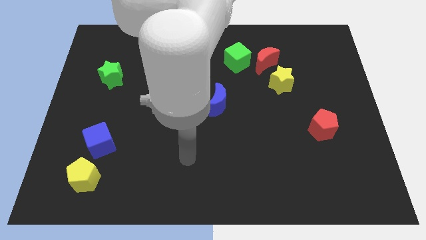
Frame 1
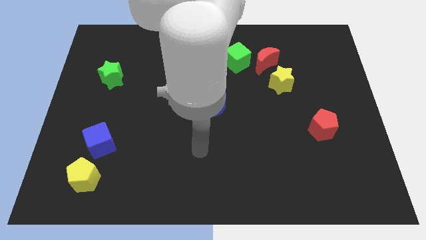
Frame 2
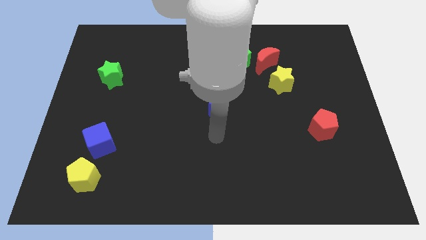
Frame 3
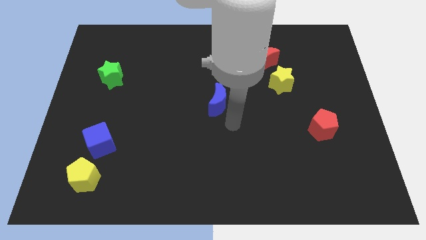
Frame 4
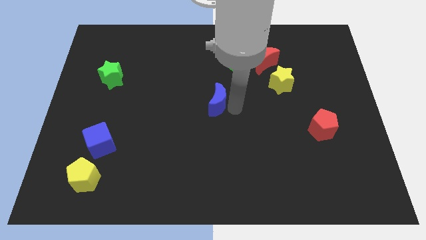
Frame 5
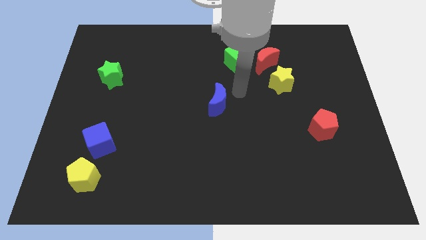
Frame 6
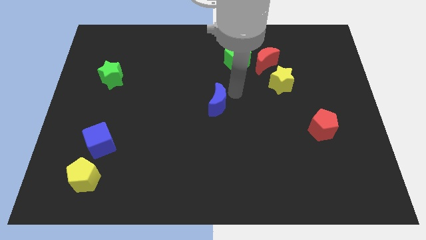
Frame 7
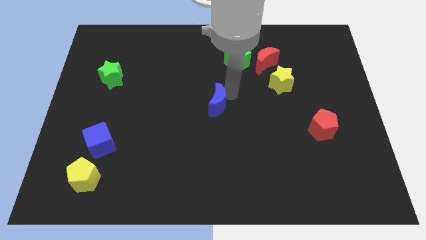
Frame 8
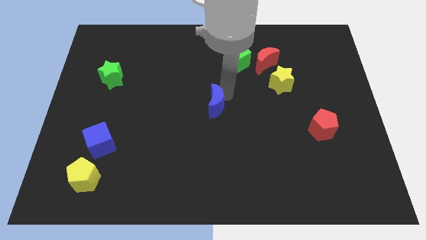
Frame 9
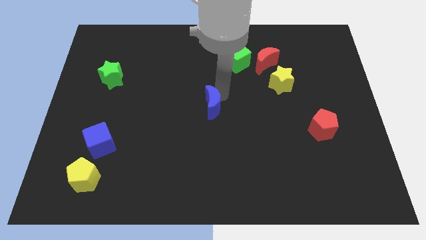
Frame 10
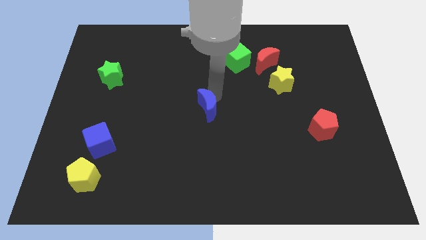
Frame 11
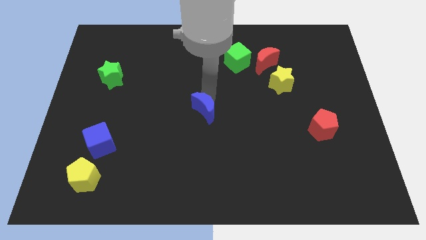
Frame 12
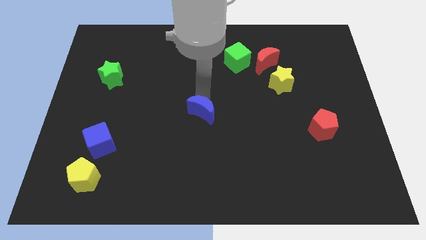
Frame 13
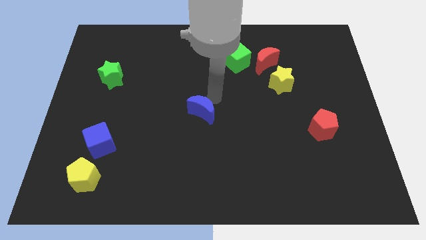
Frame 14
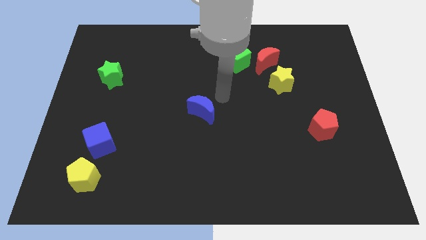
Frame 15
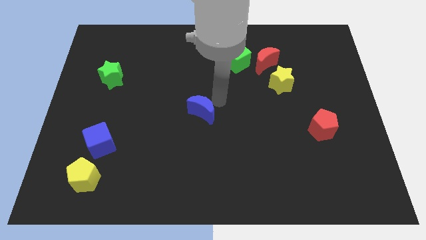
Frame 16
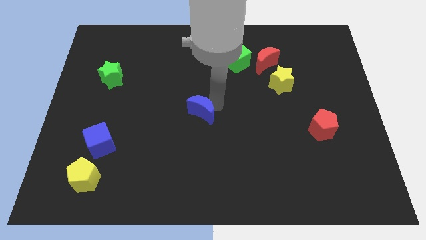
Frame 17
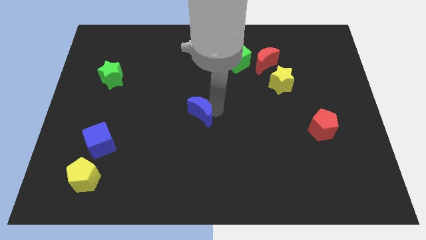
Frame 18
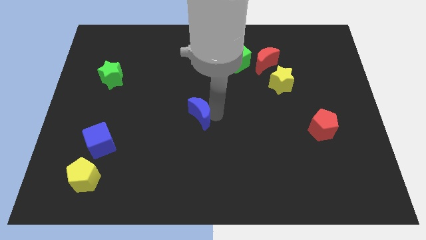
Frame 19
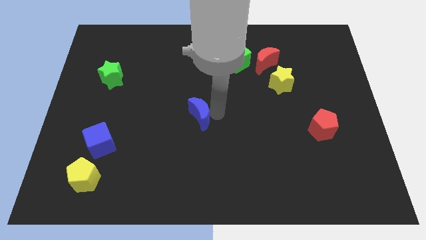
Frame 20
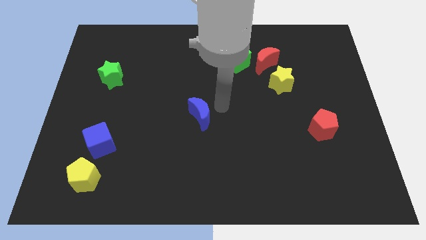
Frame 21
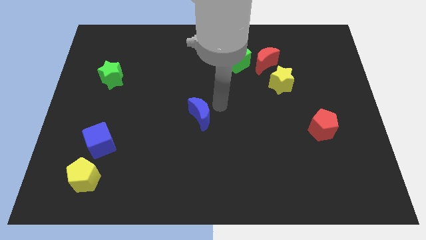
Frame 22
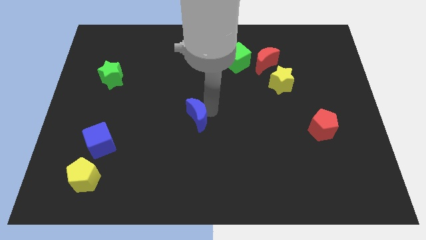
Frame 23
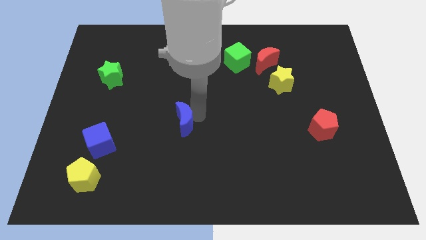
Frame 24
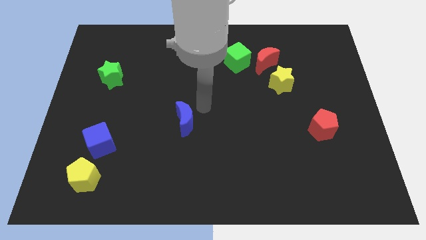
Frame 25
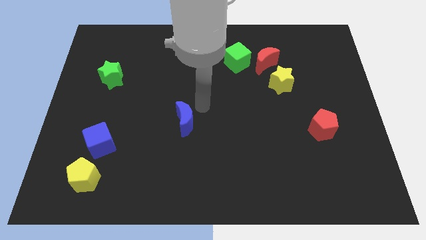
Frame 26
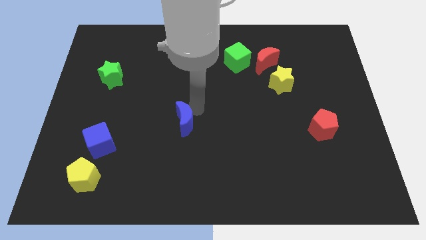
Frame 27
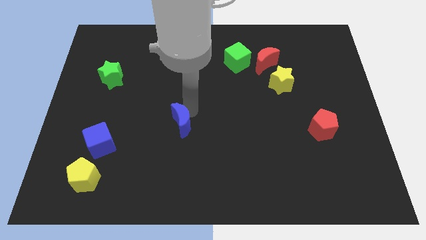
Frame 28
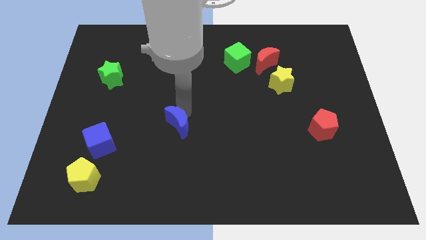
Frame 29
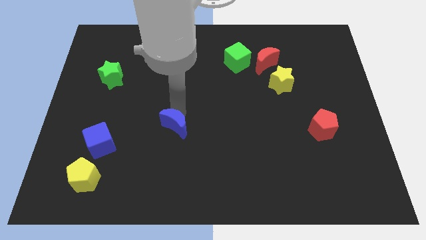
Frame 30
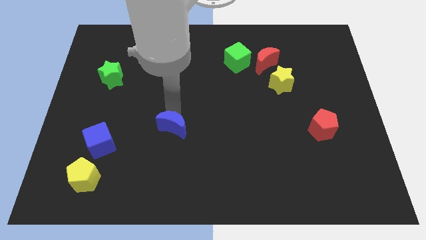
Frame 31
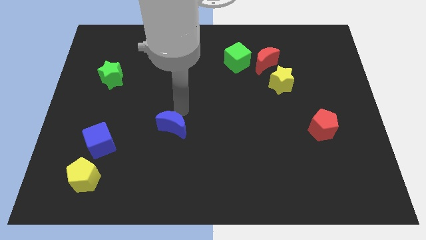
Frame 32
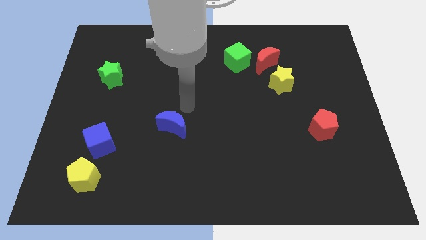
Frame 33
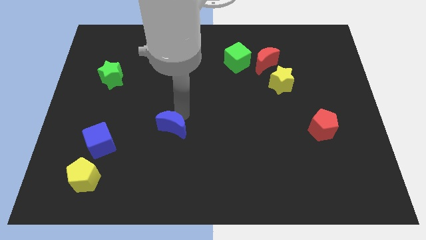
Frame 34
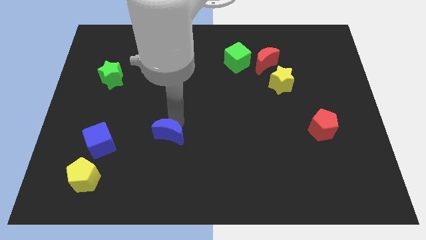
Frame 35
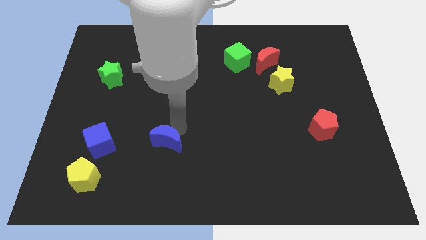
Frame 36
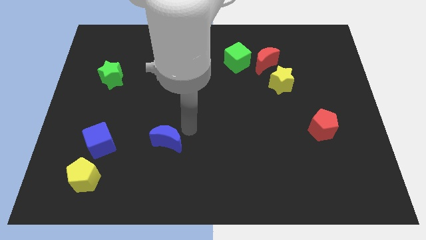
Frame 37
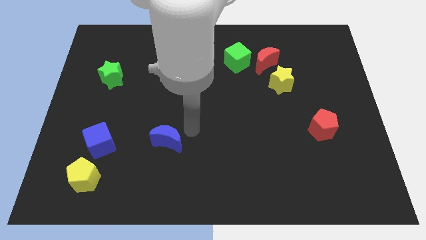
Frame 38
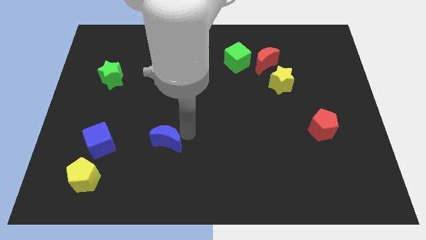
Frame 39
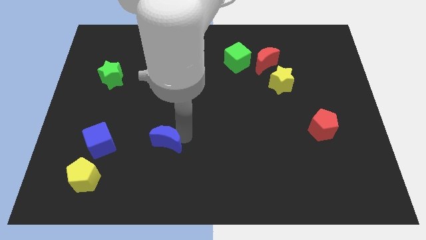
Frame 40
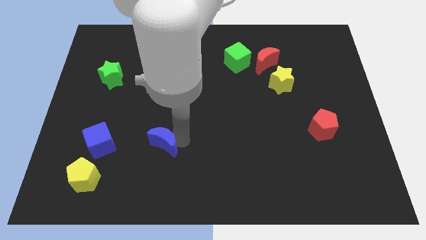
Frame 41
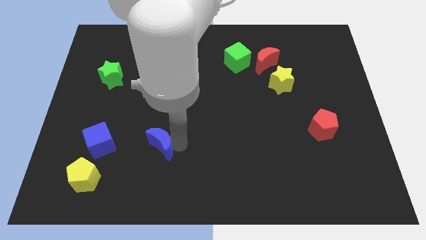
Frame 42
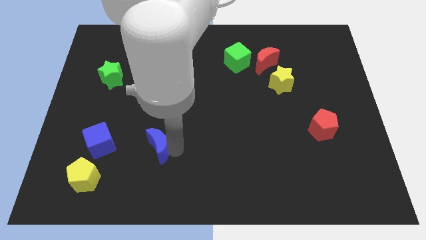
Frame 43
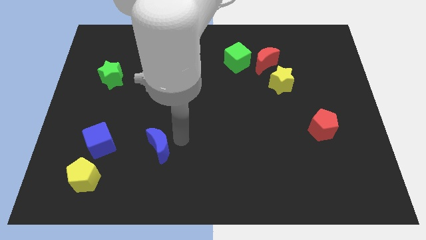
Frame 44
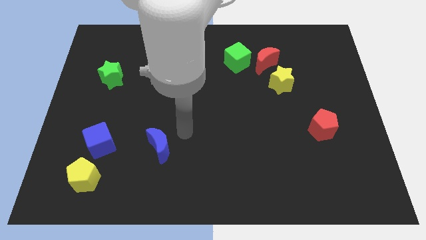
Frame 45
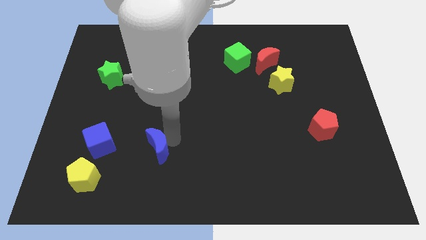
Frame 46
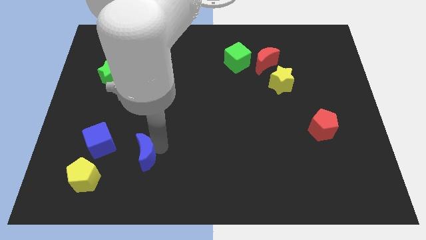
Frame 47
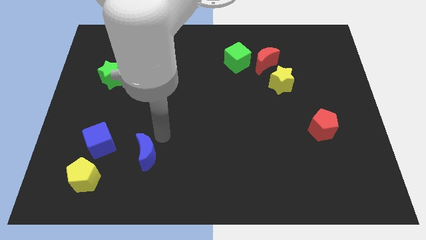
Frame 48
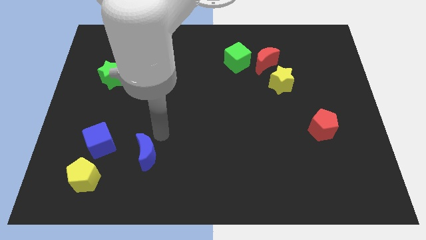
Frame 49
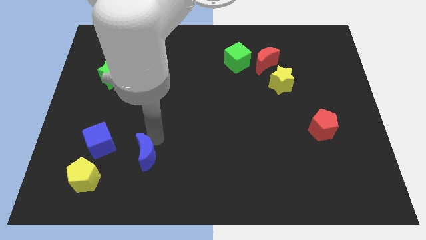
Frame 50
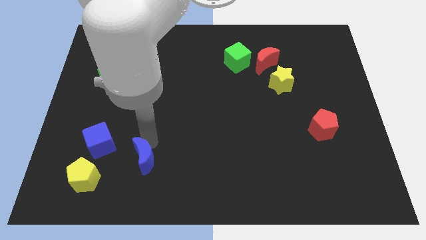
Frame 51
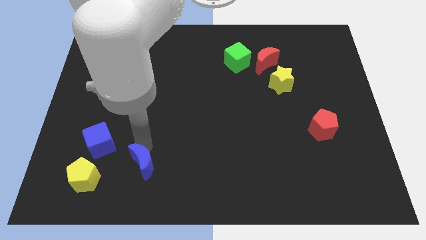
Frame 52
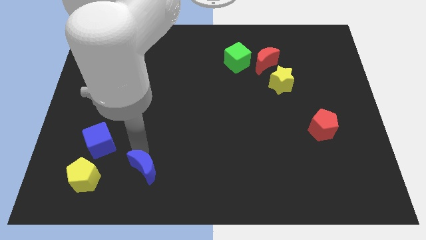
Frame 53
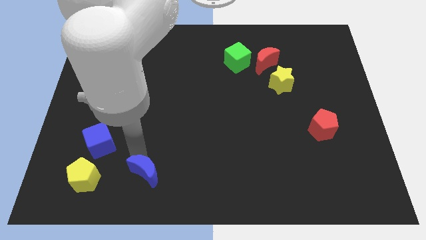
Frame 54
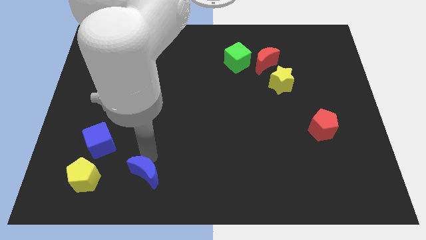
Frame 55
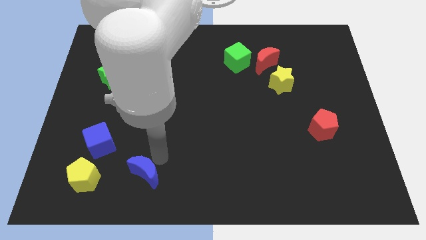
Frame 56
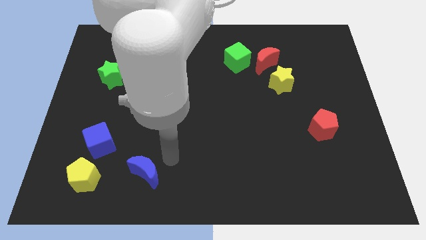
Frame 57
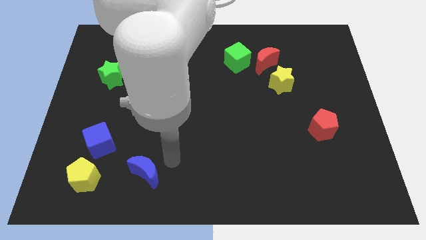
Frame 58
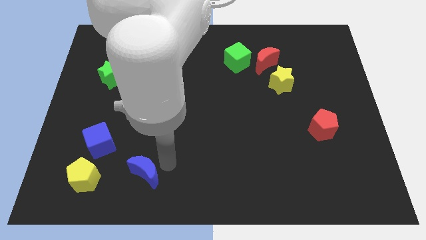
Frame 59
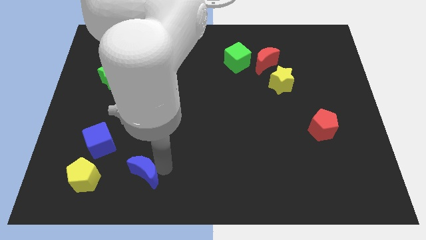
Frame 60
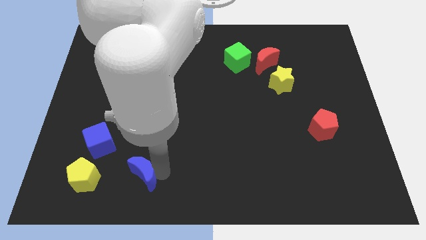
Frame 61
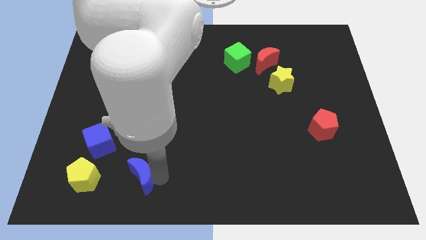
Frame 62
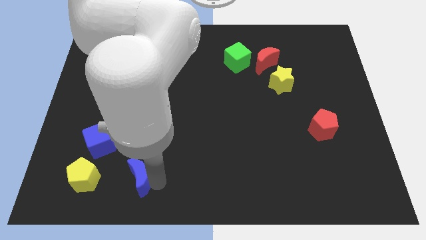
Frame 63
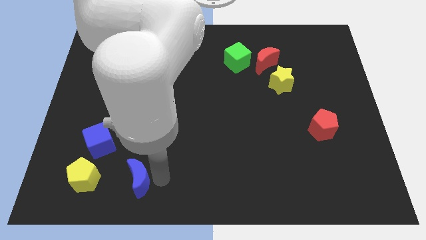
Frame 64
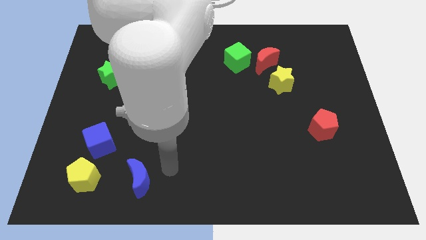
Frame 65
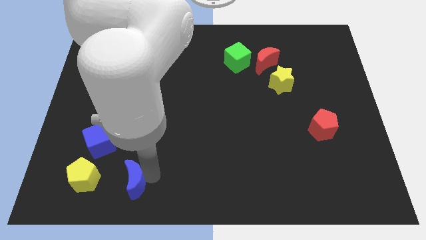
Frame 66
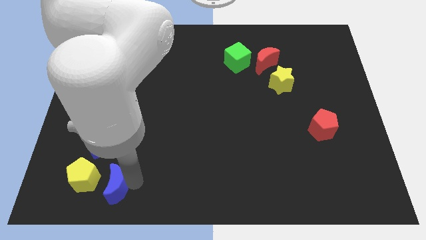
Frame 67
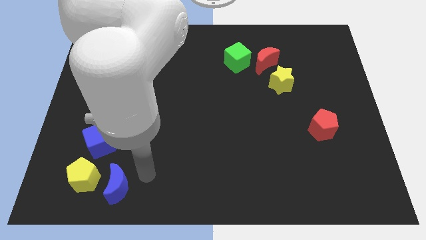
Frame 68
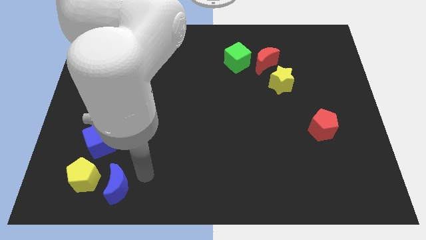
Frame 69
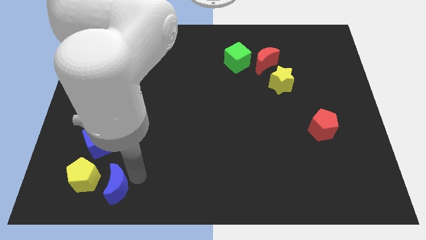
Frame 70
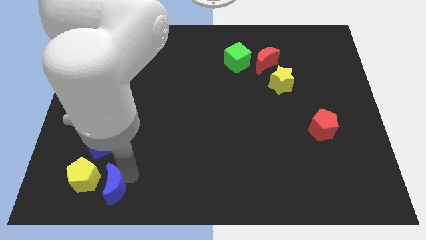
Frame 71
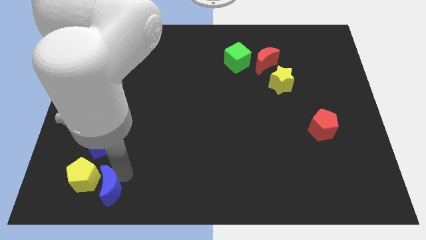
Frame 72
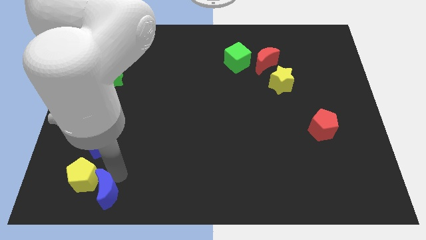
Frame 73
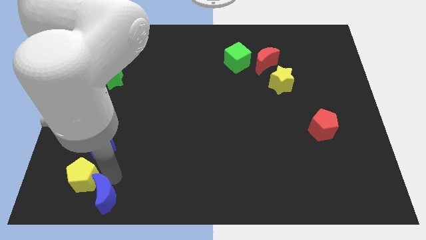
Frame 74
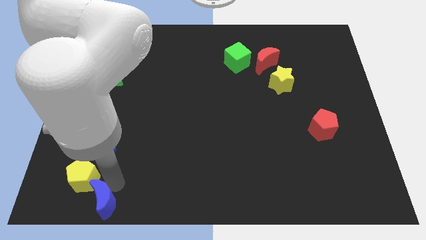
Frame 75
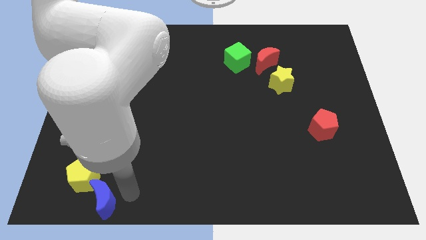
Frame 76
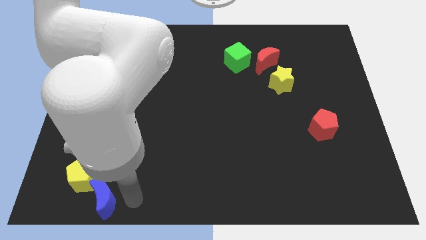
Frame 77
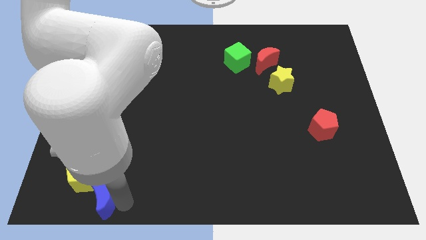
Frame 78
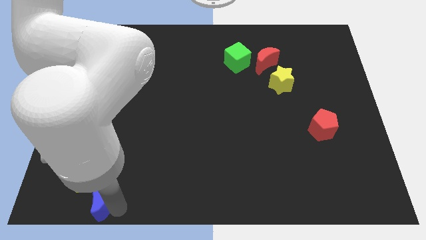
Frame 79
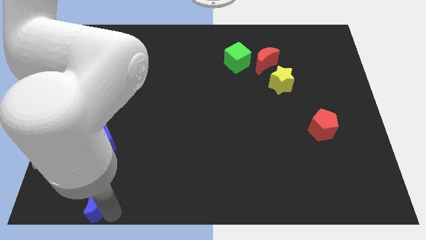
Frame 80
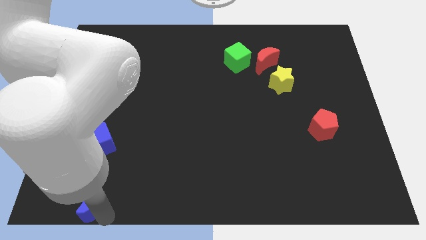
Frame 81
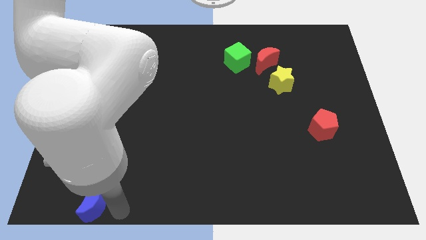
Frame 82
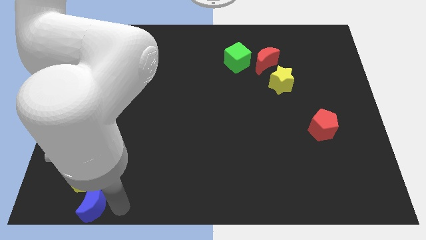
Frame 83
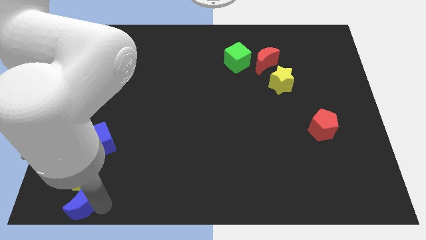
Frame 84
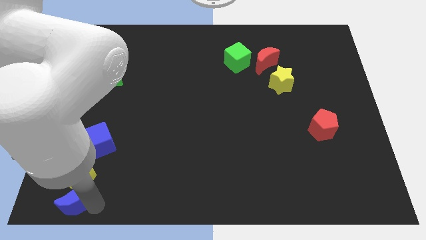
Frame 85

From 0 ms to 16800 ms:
push the blue moon to the bottom left of the board
